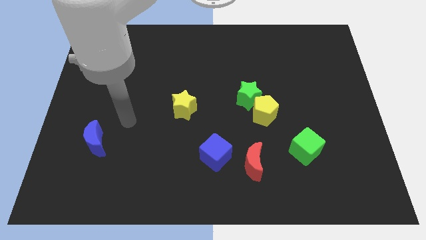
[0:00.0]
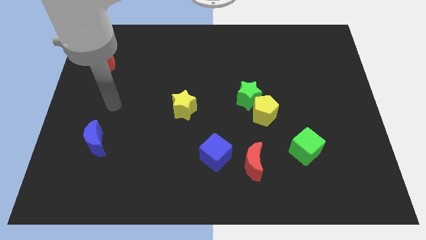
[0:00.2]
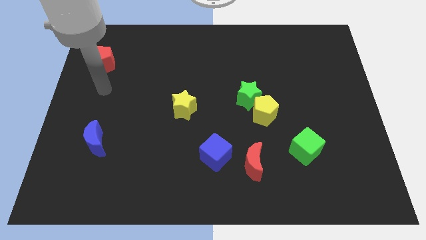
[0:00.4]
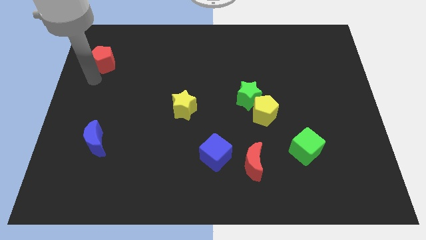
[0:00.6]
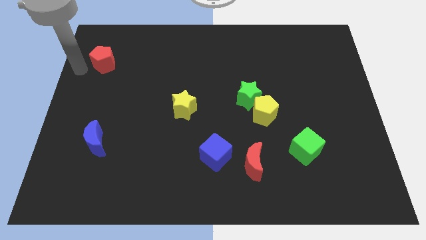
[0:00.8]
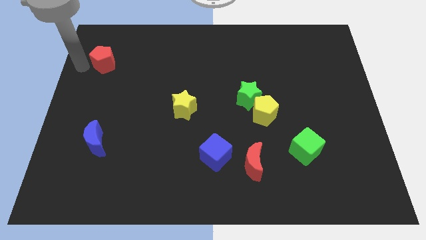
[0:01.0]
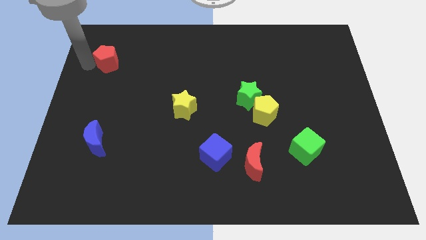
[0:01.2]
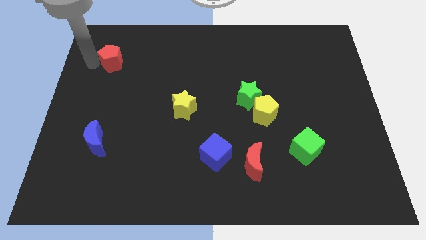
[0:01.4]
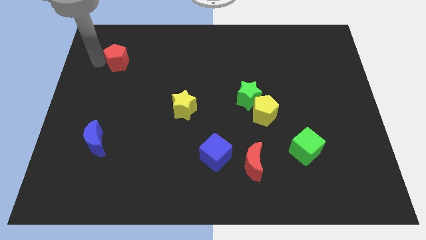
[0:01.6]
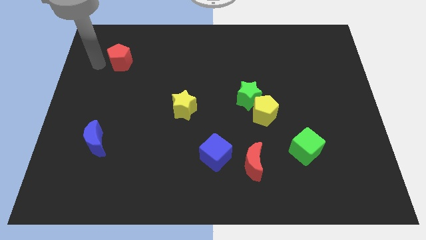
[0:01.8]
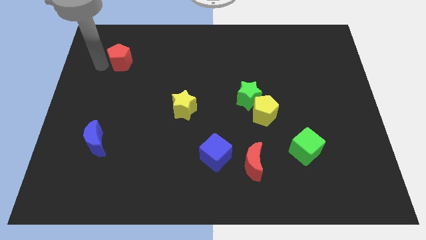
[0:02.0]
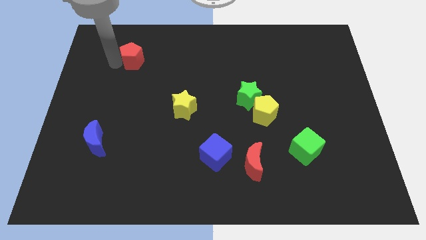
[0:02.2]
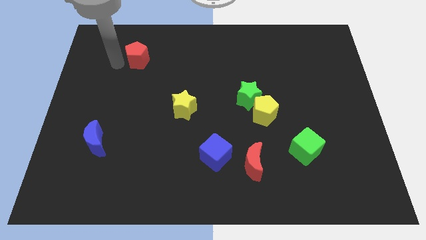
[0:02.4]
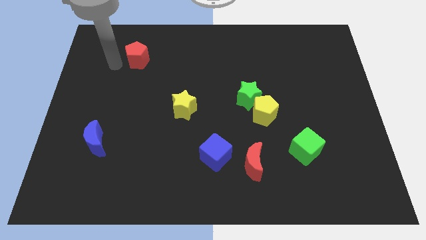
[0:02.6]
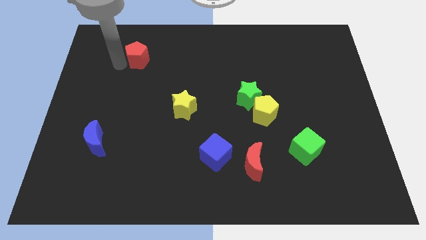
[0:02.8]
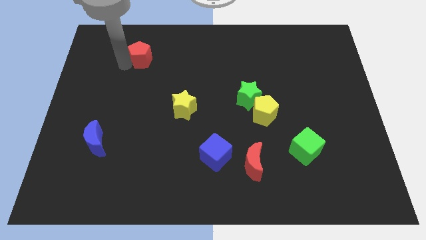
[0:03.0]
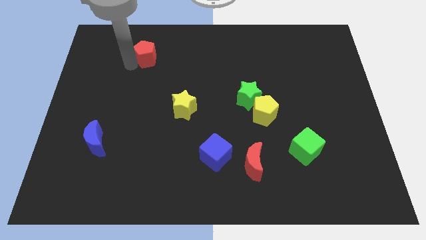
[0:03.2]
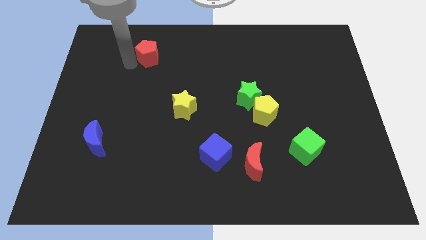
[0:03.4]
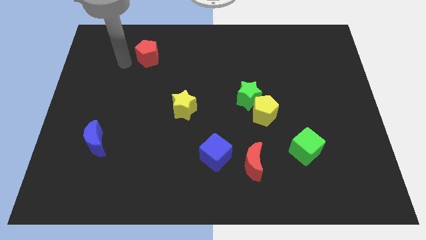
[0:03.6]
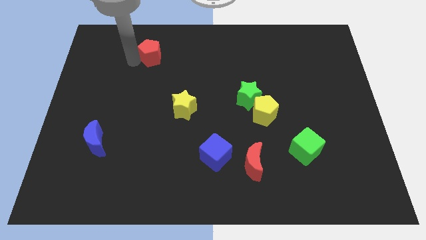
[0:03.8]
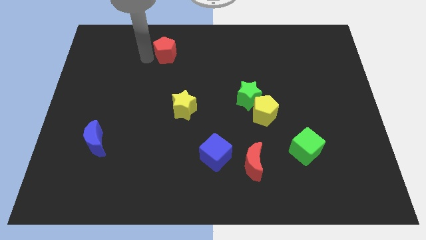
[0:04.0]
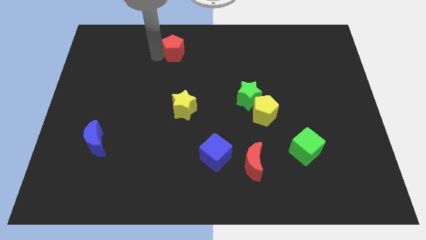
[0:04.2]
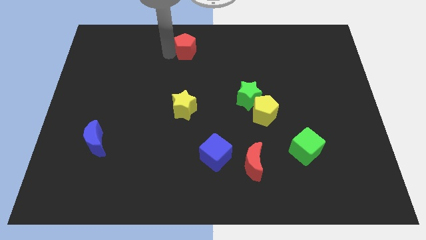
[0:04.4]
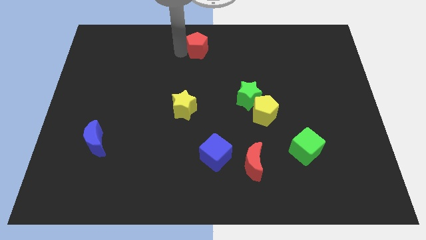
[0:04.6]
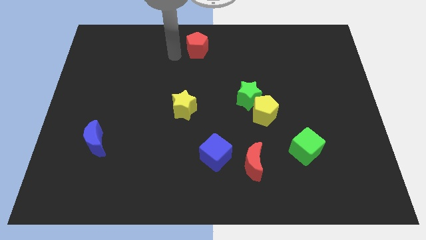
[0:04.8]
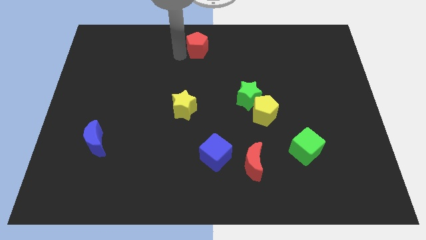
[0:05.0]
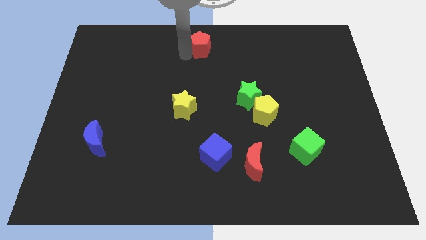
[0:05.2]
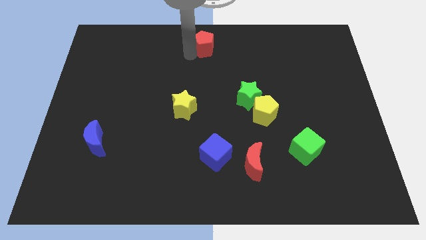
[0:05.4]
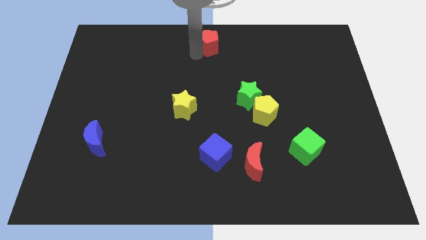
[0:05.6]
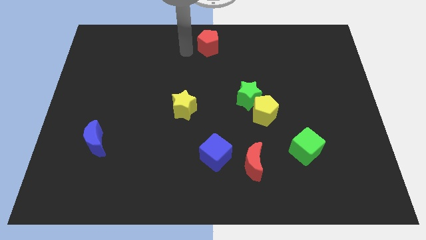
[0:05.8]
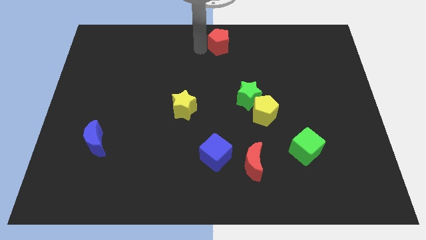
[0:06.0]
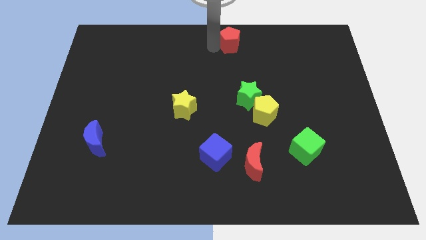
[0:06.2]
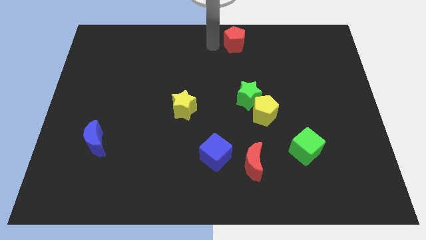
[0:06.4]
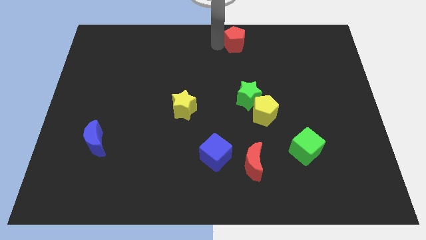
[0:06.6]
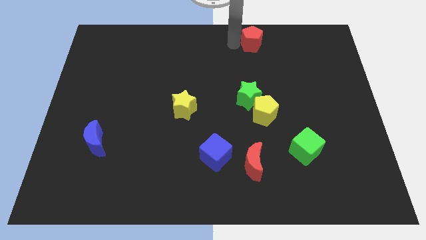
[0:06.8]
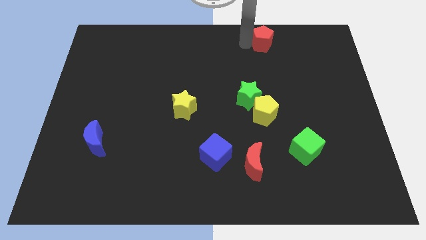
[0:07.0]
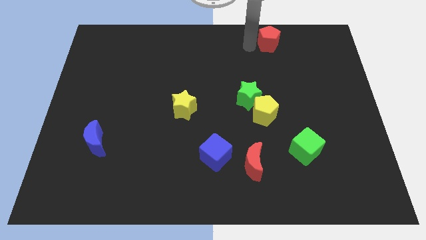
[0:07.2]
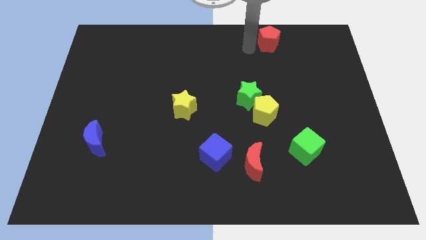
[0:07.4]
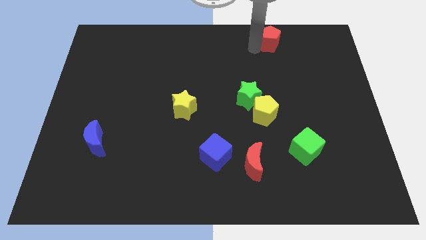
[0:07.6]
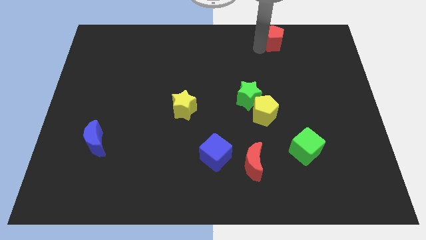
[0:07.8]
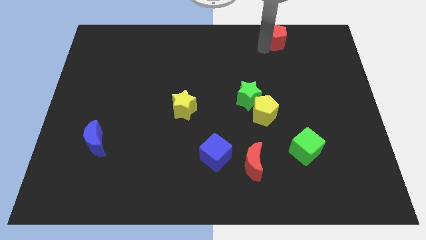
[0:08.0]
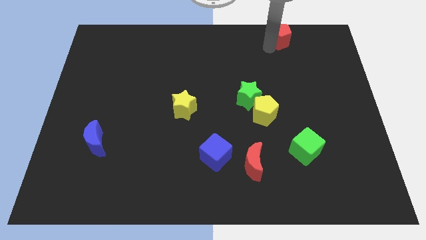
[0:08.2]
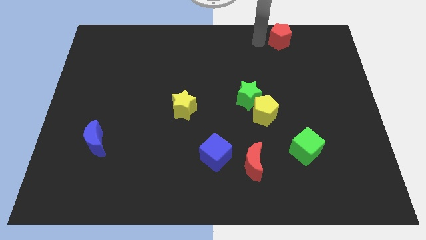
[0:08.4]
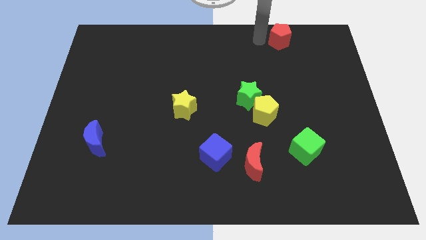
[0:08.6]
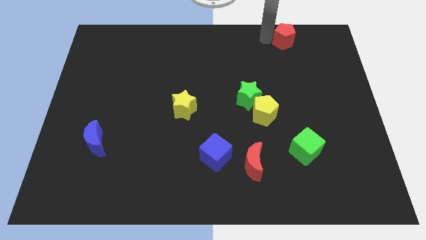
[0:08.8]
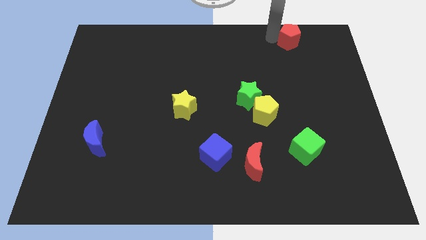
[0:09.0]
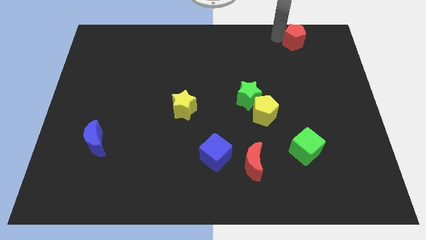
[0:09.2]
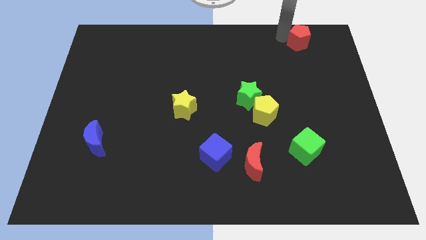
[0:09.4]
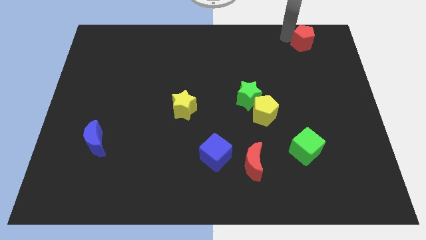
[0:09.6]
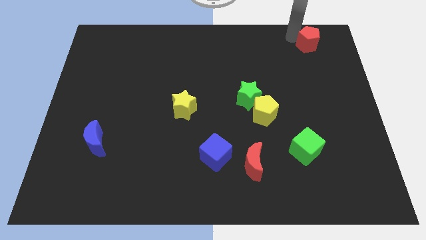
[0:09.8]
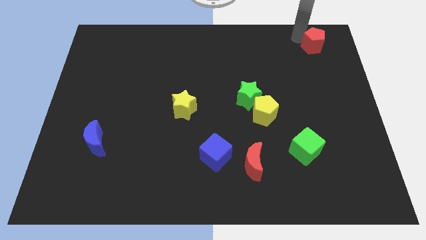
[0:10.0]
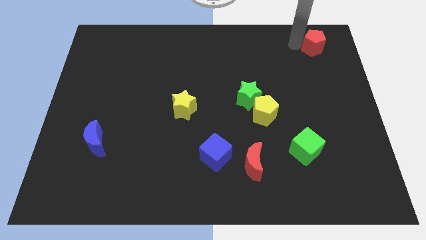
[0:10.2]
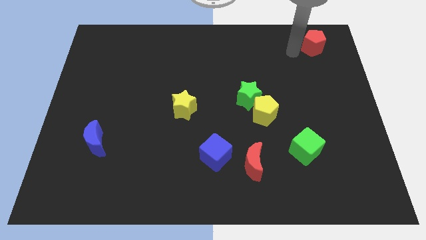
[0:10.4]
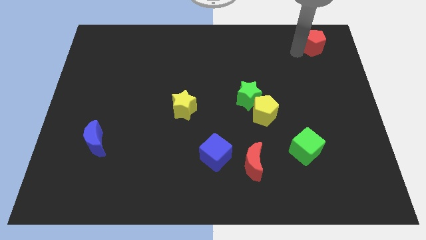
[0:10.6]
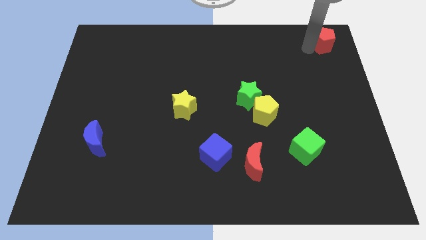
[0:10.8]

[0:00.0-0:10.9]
move the red pentagon to the top right of the board
